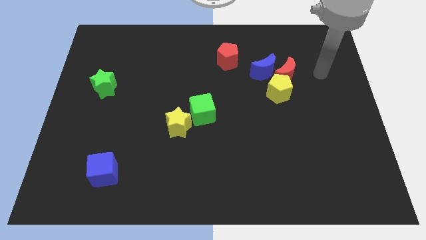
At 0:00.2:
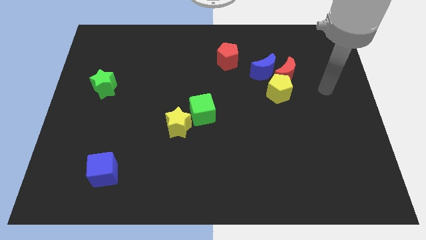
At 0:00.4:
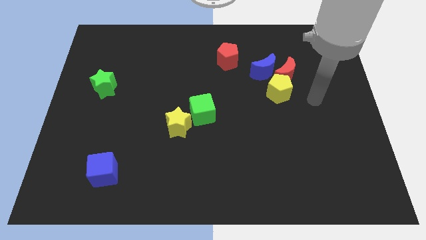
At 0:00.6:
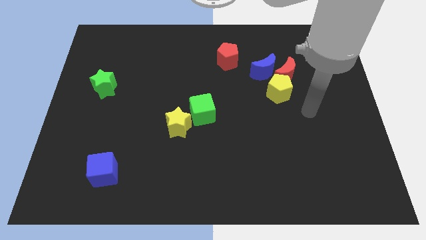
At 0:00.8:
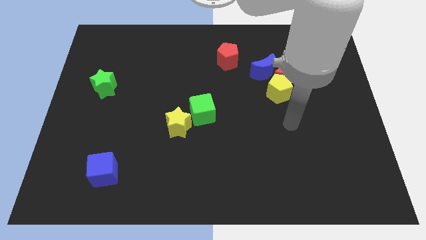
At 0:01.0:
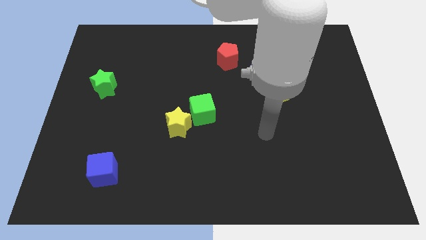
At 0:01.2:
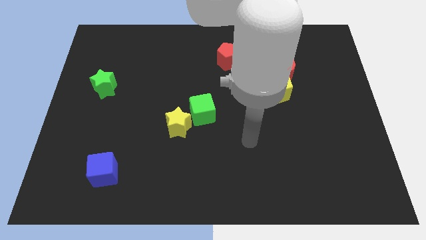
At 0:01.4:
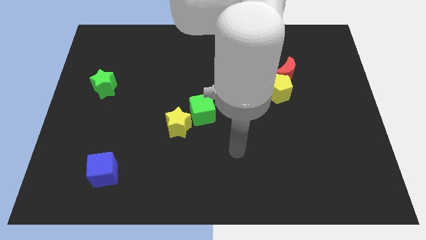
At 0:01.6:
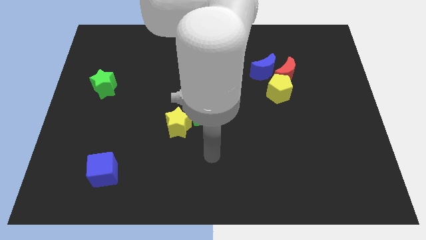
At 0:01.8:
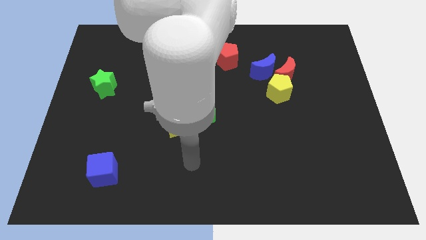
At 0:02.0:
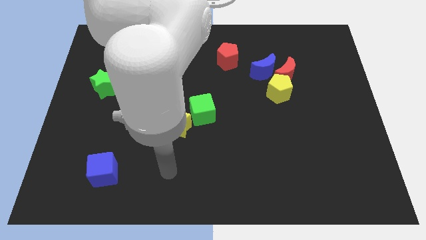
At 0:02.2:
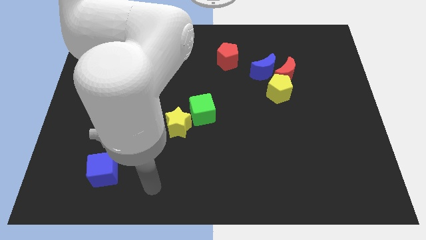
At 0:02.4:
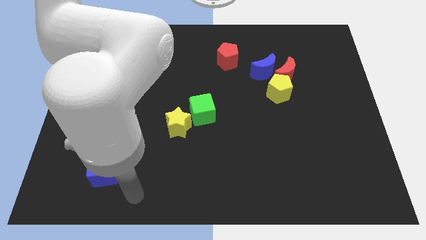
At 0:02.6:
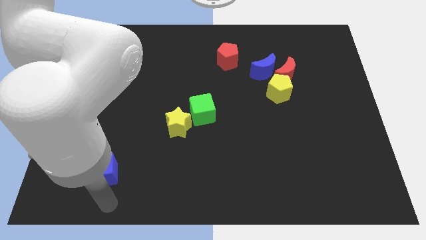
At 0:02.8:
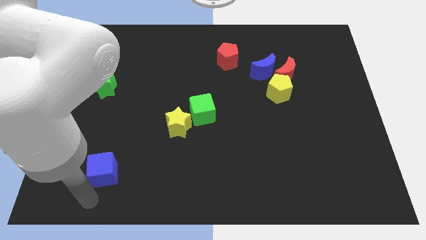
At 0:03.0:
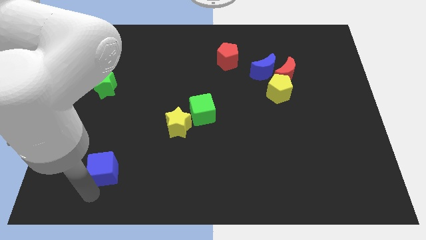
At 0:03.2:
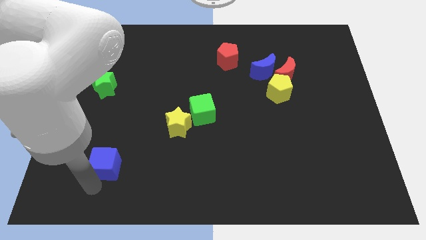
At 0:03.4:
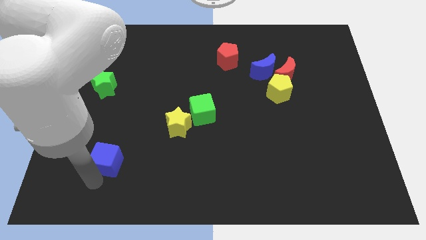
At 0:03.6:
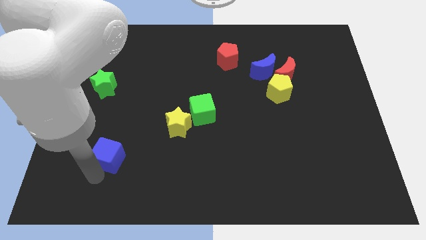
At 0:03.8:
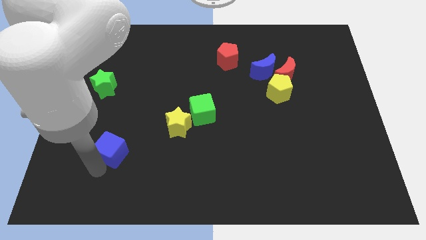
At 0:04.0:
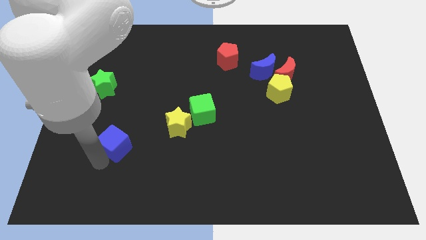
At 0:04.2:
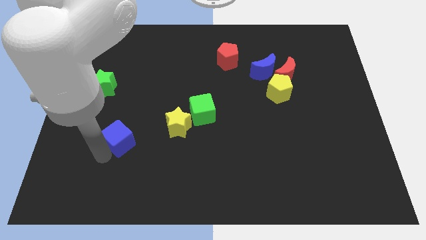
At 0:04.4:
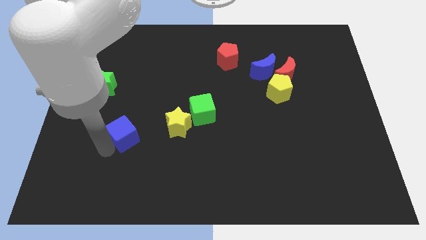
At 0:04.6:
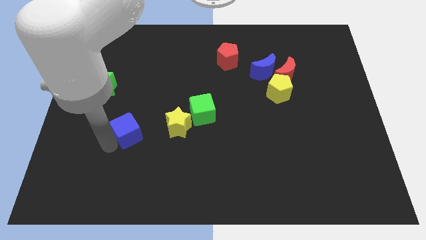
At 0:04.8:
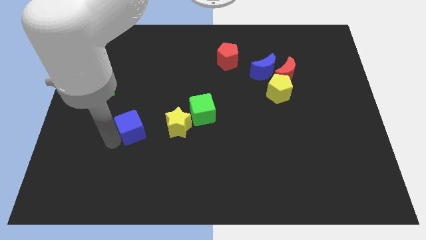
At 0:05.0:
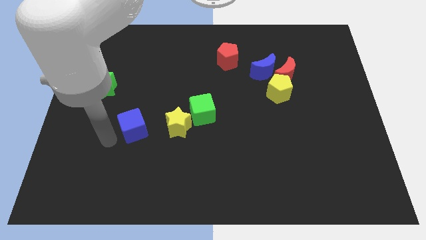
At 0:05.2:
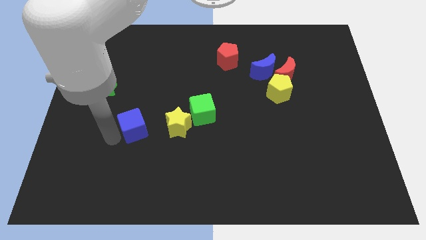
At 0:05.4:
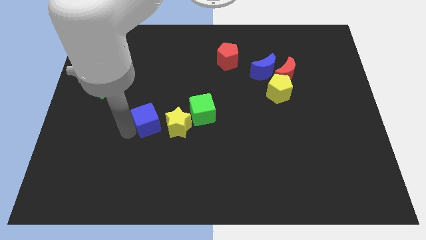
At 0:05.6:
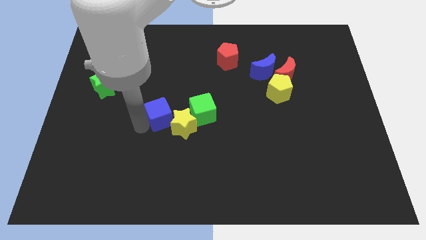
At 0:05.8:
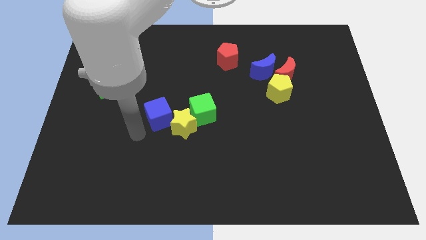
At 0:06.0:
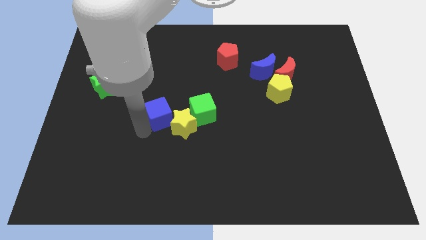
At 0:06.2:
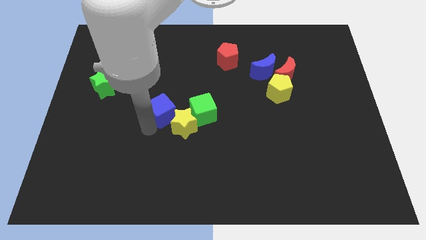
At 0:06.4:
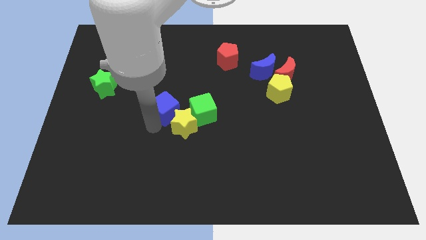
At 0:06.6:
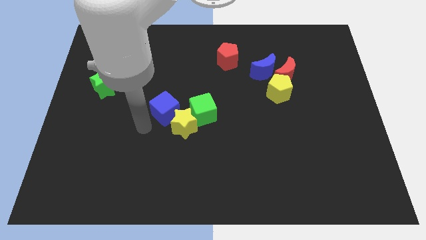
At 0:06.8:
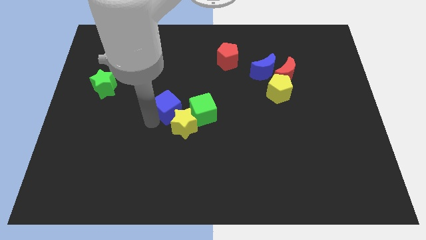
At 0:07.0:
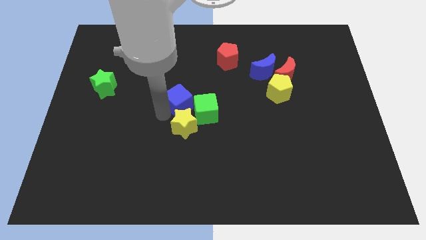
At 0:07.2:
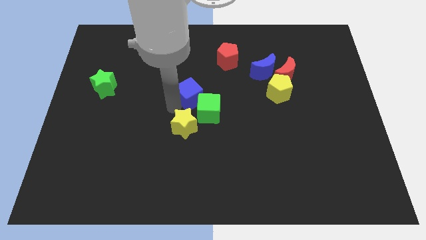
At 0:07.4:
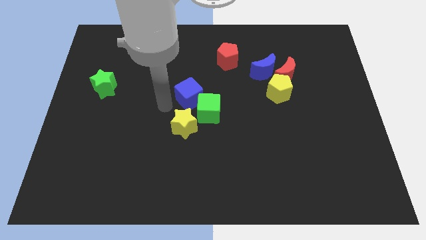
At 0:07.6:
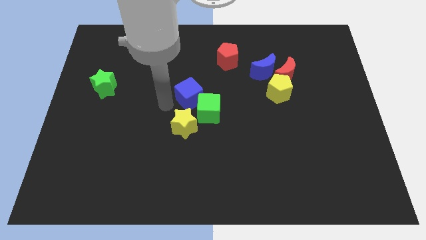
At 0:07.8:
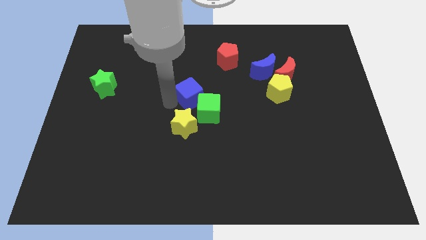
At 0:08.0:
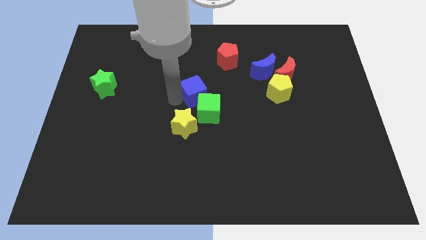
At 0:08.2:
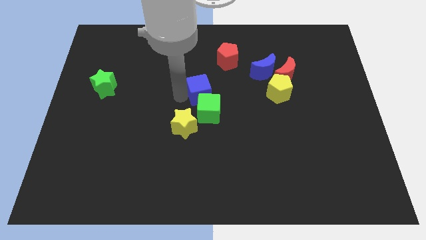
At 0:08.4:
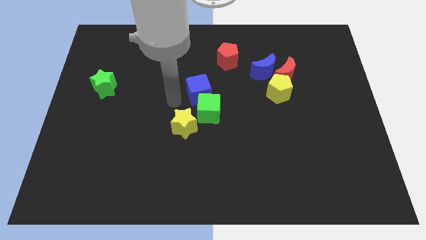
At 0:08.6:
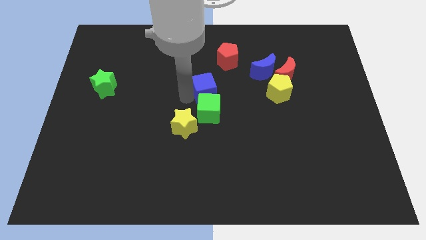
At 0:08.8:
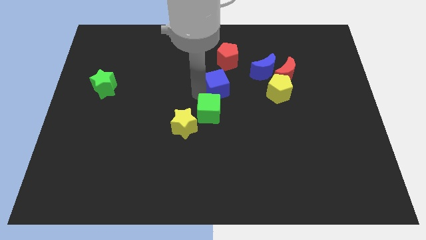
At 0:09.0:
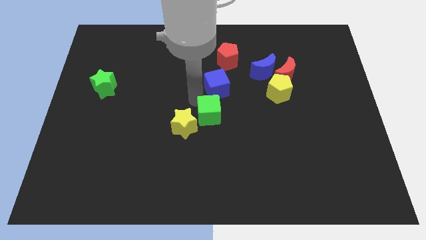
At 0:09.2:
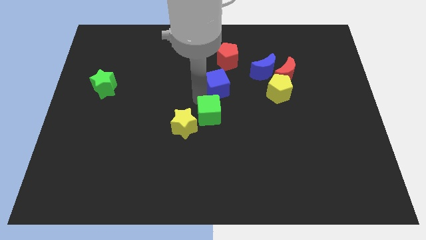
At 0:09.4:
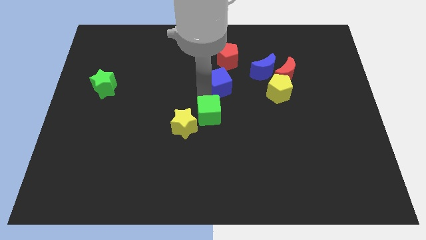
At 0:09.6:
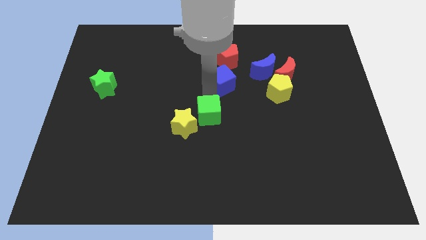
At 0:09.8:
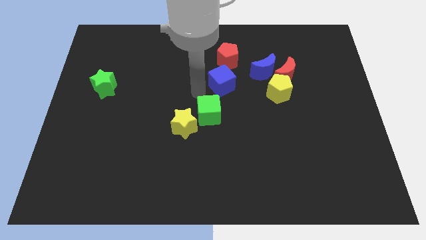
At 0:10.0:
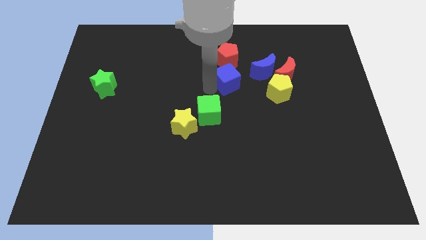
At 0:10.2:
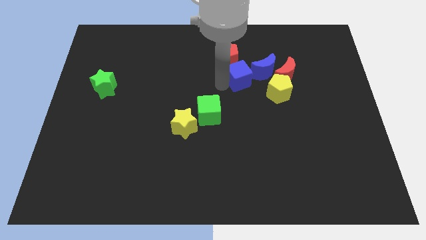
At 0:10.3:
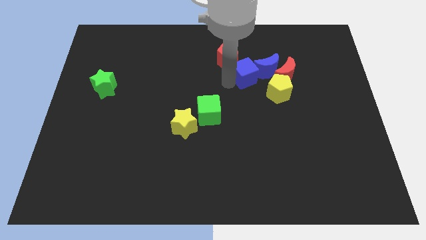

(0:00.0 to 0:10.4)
slide the blue cube close to the blue moon

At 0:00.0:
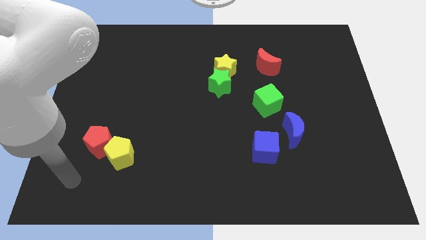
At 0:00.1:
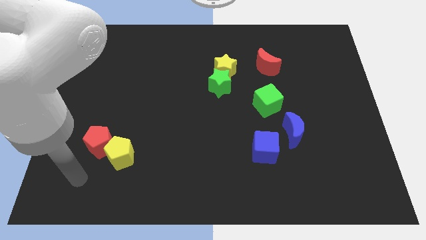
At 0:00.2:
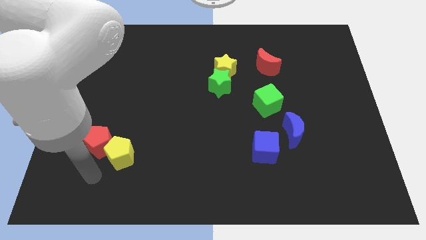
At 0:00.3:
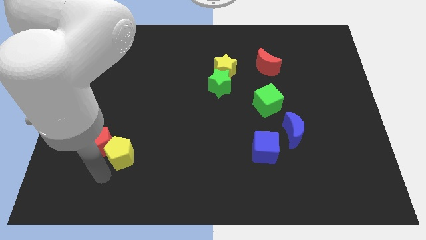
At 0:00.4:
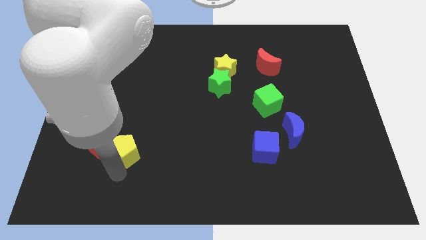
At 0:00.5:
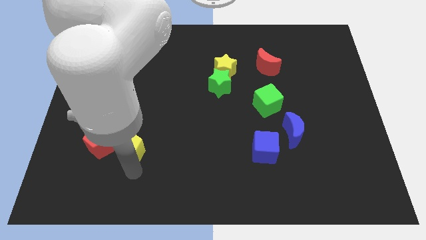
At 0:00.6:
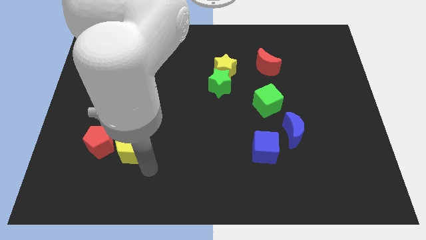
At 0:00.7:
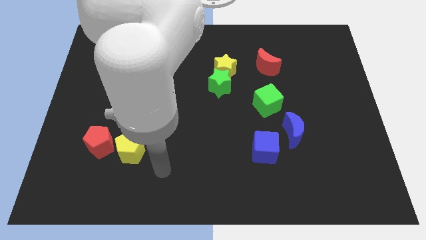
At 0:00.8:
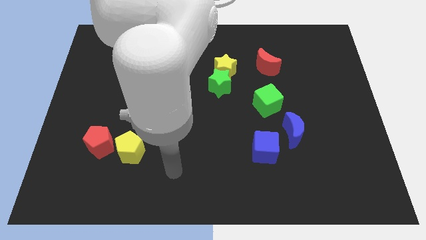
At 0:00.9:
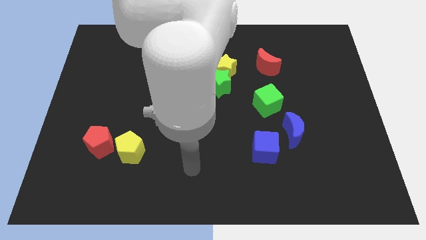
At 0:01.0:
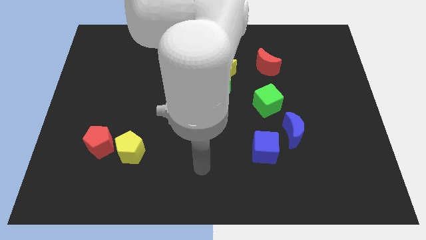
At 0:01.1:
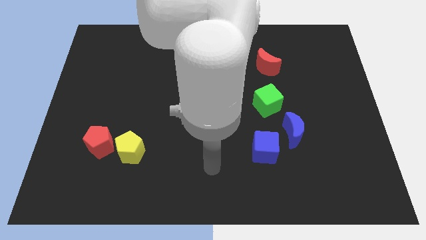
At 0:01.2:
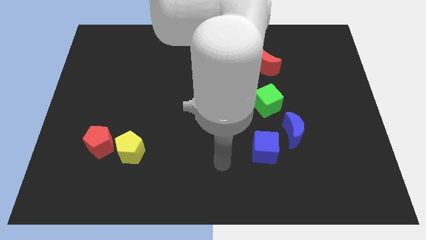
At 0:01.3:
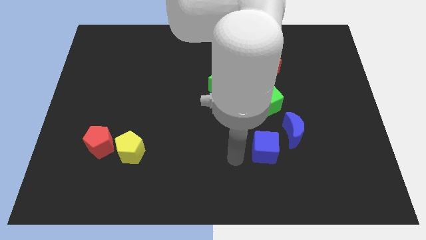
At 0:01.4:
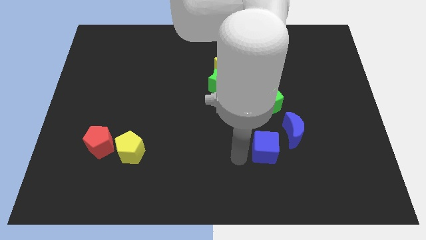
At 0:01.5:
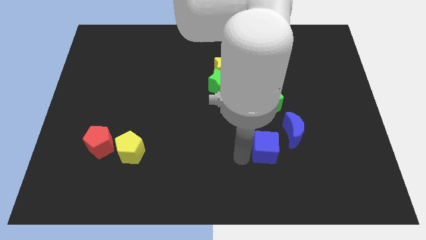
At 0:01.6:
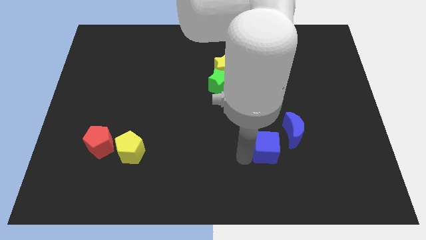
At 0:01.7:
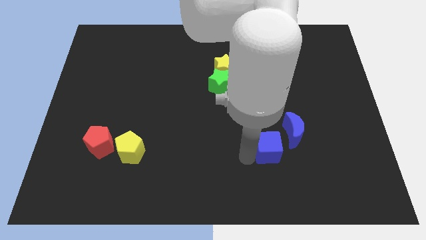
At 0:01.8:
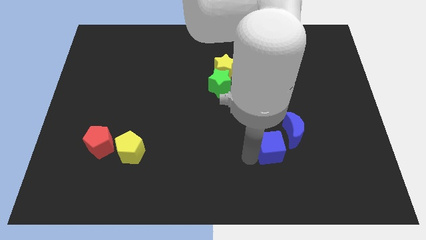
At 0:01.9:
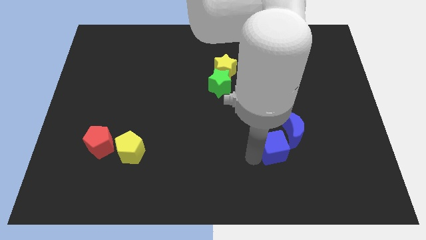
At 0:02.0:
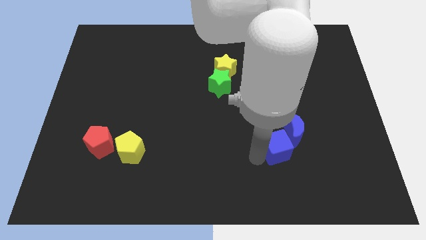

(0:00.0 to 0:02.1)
move the blue cube close to the blue moon
